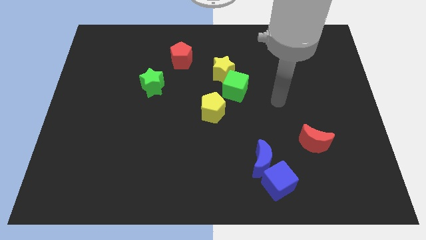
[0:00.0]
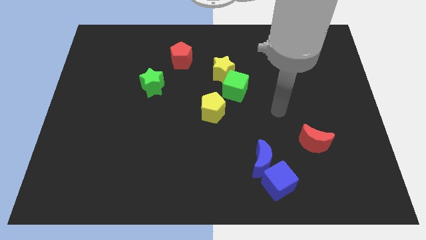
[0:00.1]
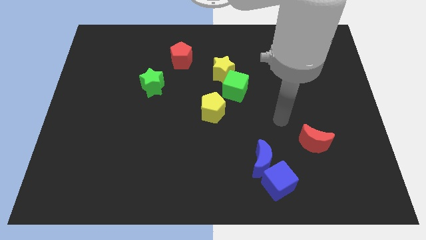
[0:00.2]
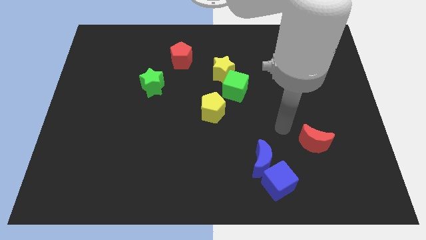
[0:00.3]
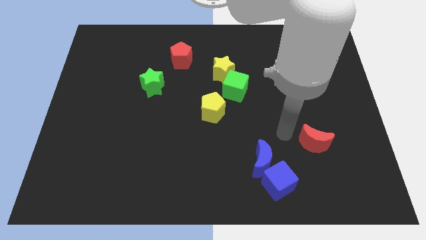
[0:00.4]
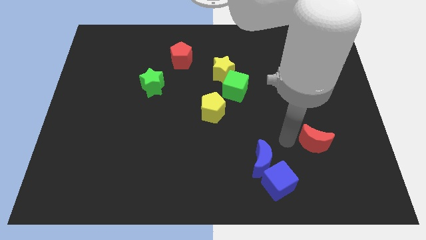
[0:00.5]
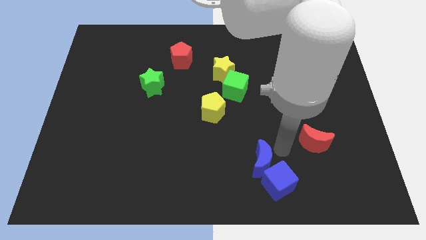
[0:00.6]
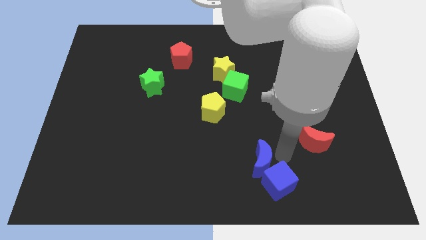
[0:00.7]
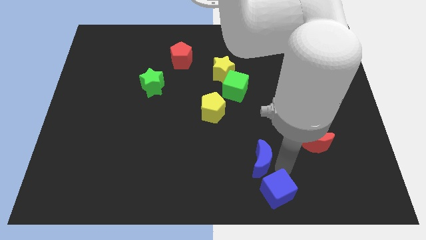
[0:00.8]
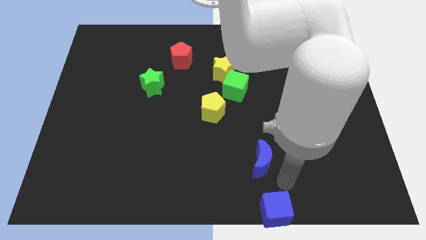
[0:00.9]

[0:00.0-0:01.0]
separate the blue moon from the blue cube

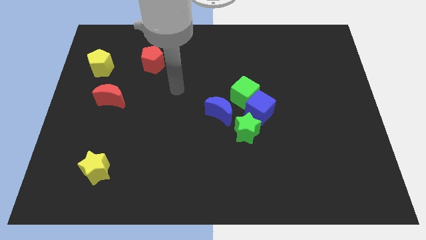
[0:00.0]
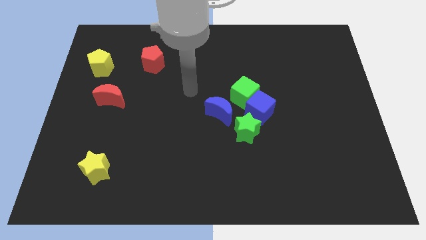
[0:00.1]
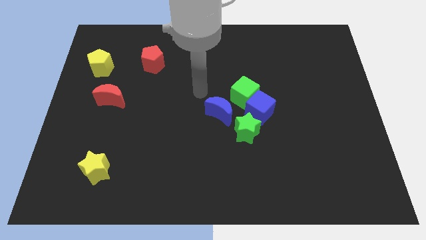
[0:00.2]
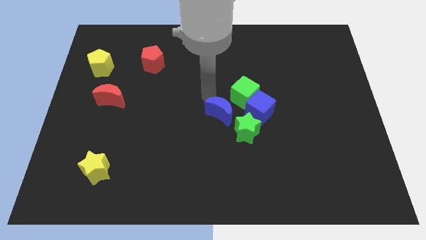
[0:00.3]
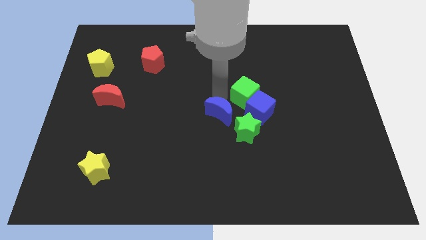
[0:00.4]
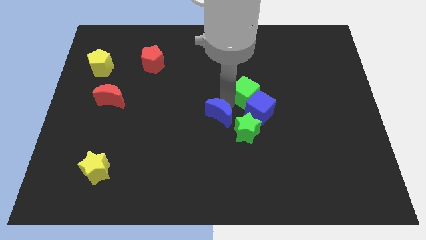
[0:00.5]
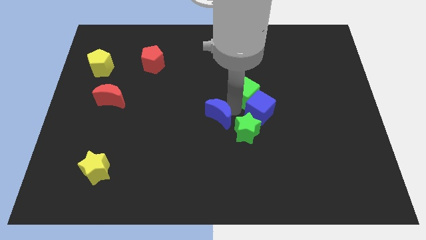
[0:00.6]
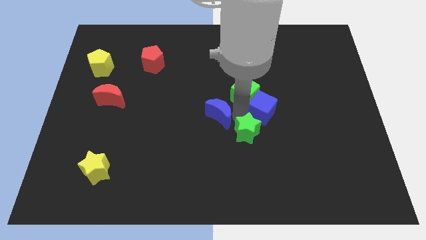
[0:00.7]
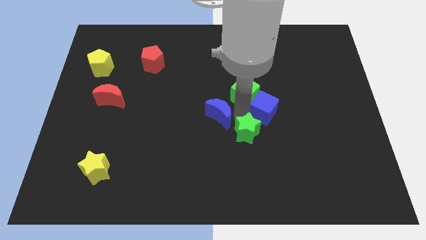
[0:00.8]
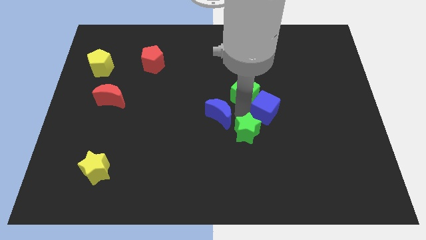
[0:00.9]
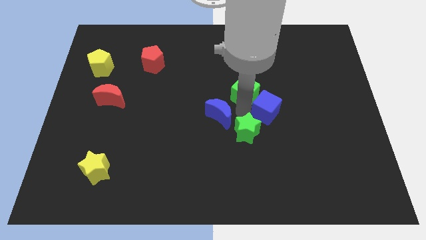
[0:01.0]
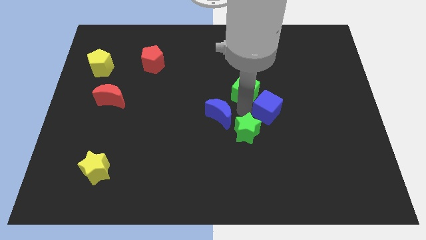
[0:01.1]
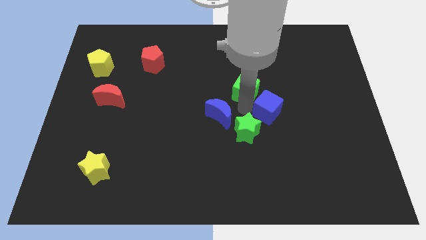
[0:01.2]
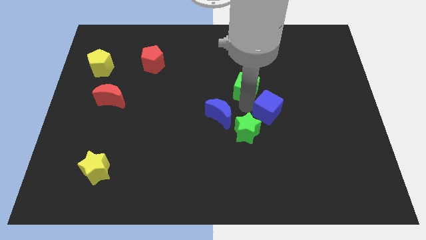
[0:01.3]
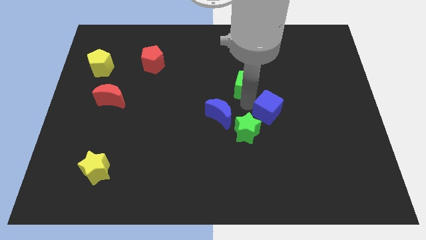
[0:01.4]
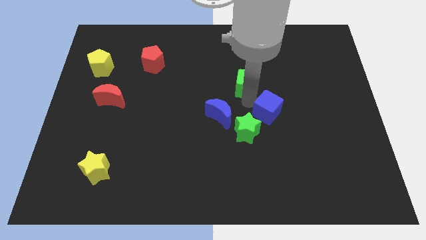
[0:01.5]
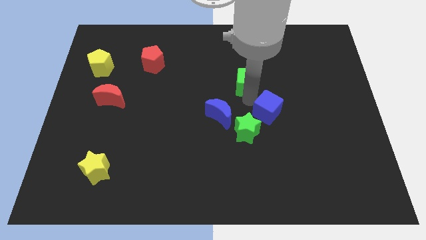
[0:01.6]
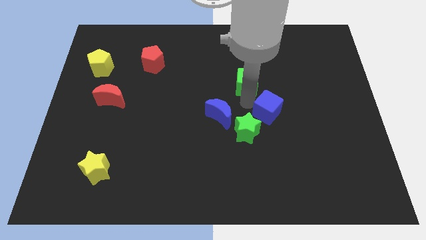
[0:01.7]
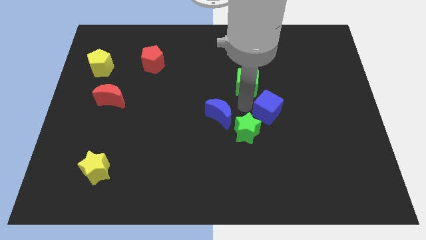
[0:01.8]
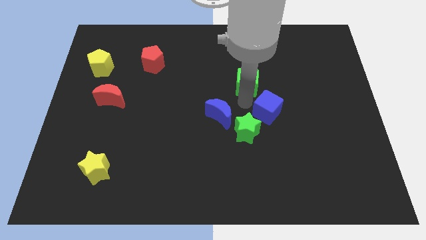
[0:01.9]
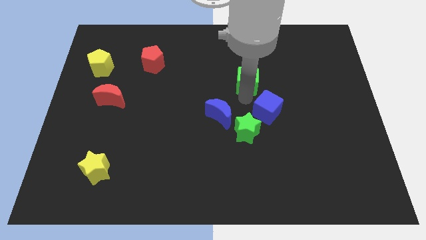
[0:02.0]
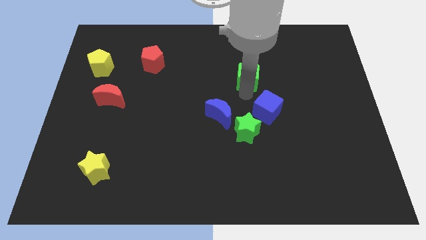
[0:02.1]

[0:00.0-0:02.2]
separate the green cube from the blue cube and blue moon

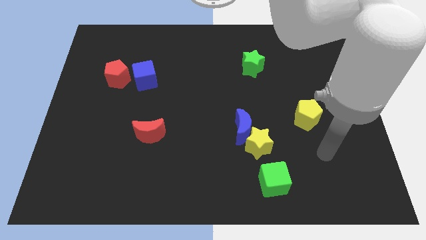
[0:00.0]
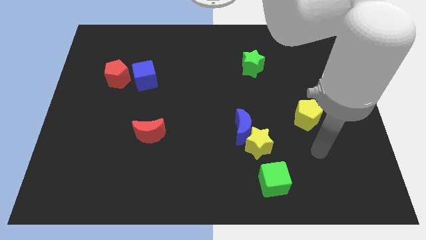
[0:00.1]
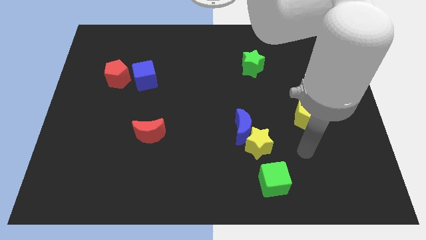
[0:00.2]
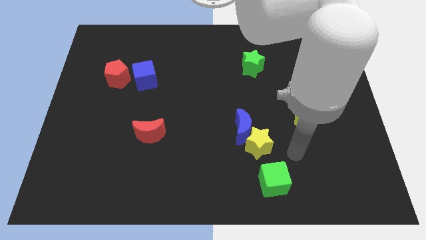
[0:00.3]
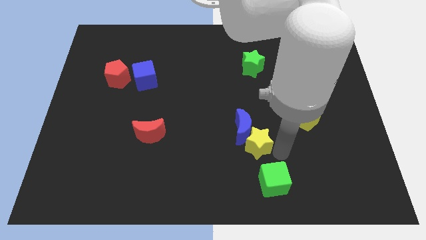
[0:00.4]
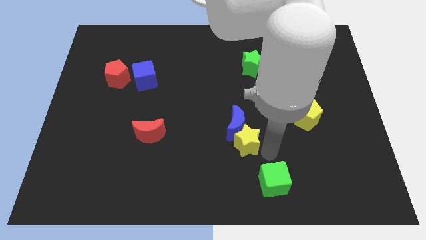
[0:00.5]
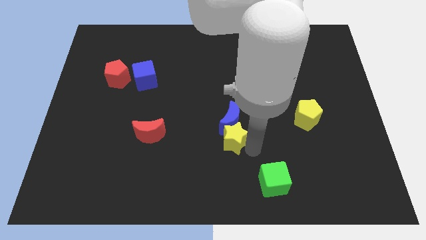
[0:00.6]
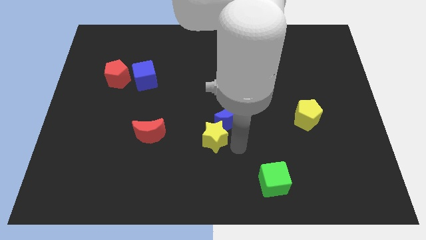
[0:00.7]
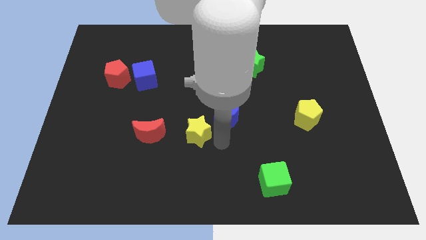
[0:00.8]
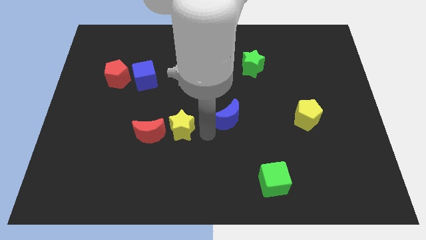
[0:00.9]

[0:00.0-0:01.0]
separate the blue moon from the yellow star

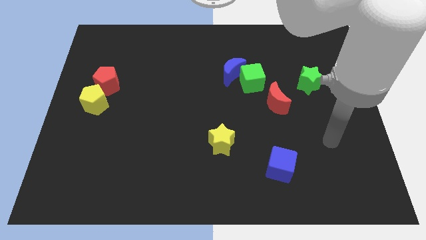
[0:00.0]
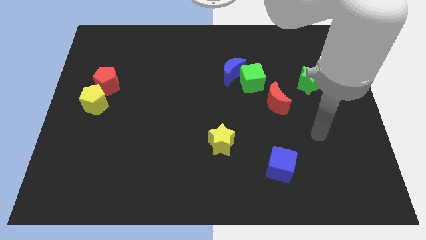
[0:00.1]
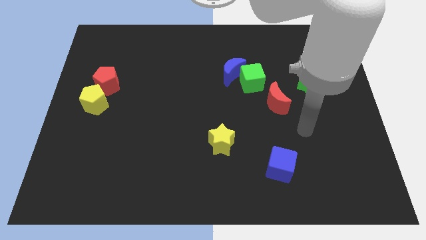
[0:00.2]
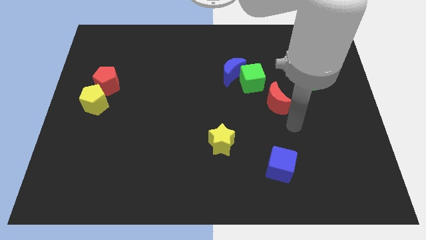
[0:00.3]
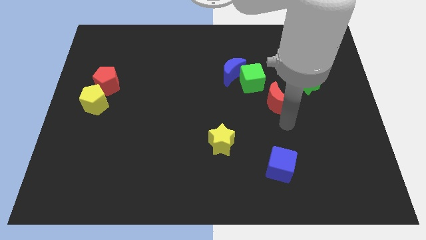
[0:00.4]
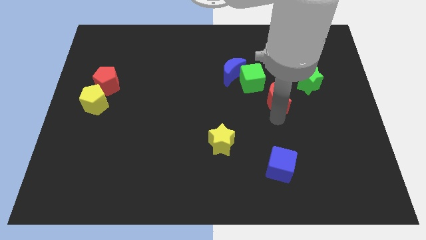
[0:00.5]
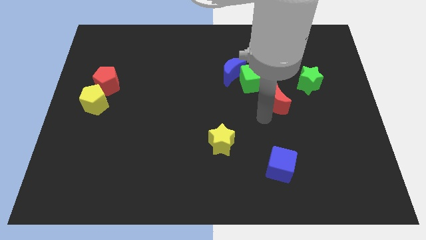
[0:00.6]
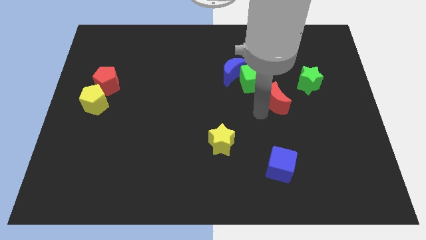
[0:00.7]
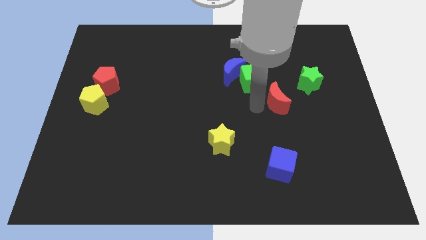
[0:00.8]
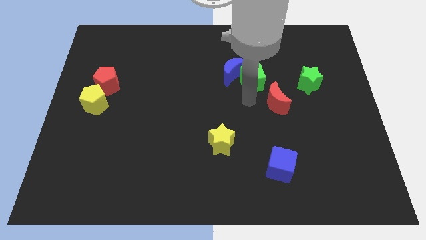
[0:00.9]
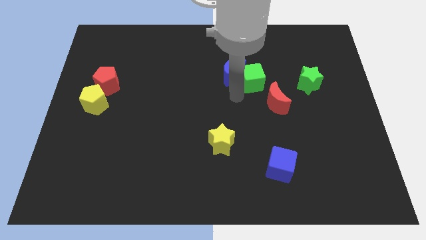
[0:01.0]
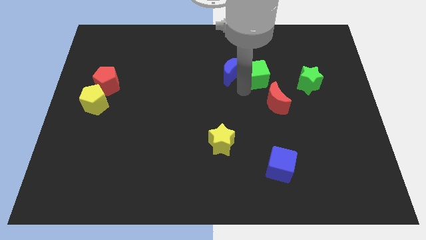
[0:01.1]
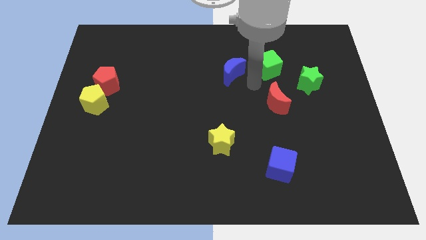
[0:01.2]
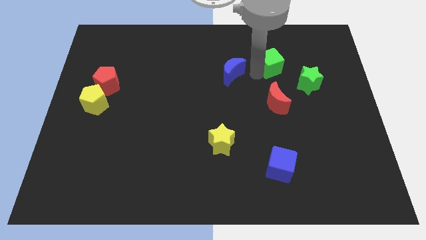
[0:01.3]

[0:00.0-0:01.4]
pull the blue moon apart from the green cube

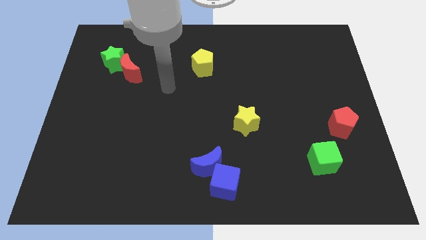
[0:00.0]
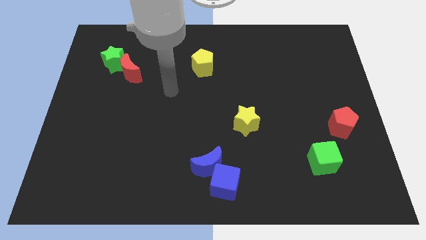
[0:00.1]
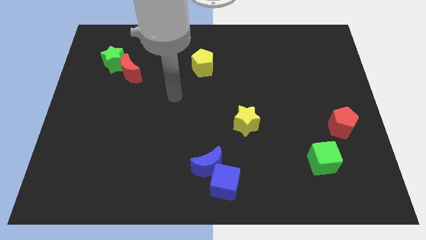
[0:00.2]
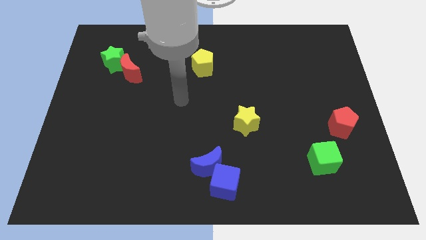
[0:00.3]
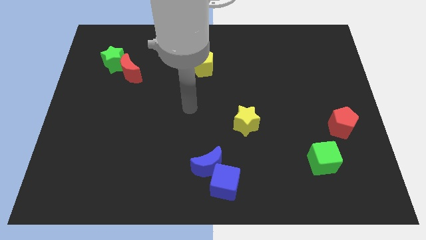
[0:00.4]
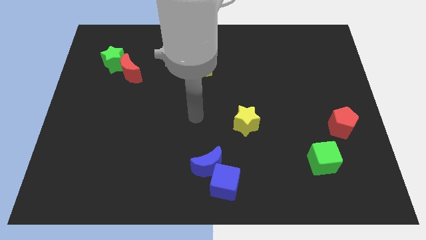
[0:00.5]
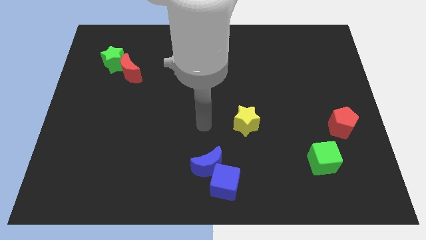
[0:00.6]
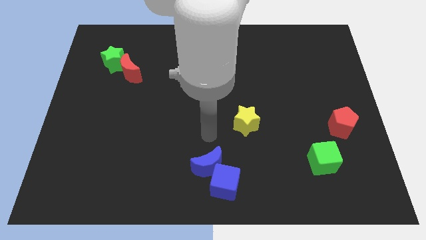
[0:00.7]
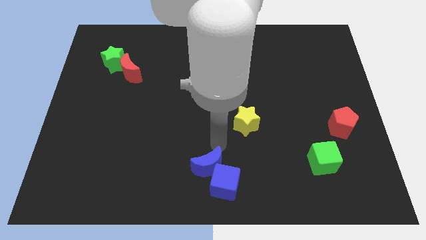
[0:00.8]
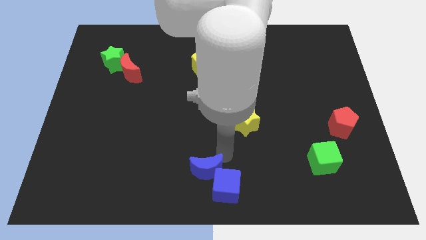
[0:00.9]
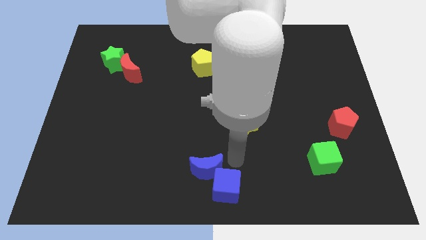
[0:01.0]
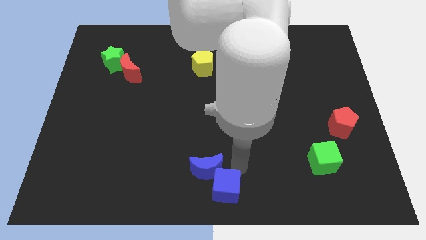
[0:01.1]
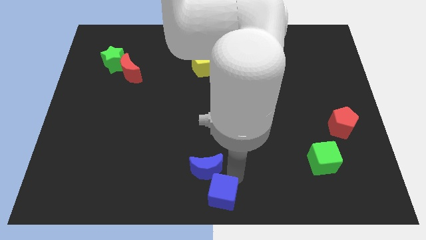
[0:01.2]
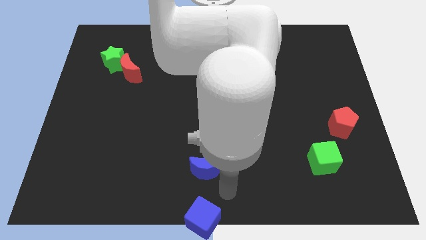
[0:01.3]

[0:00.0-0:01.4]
pull the blue moon apart from the blue cube

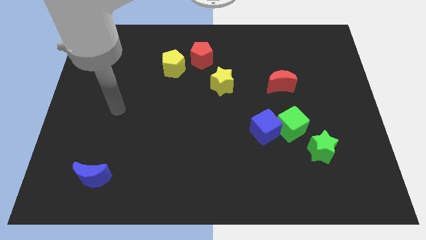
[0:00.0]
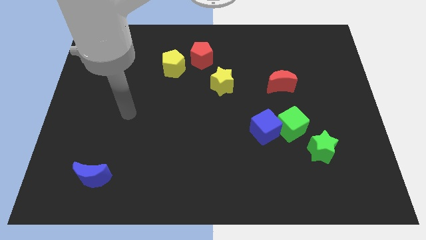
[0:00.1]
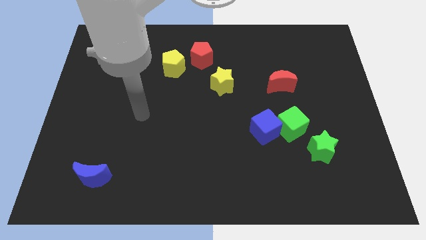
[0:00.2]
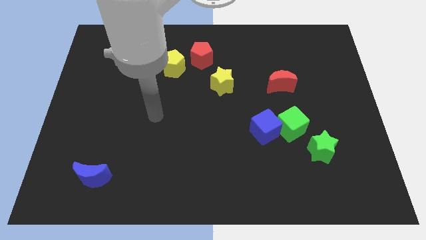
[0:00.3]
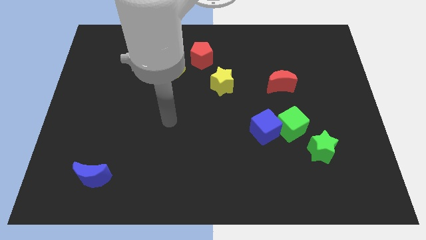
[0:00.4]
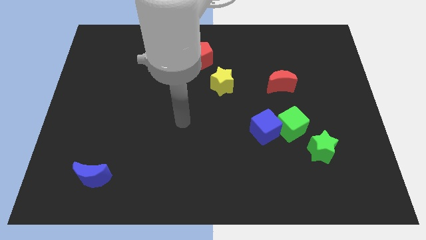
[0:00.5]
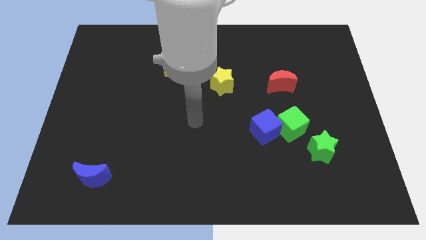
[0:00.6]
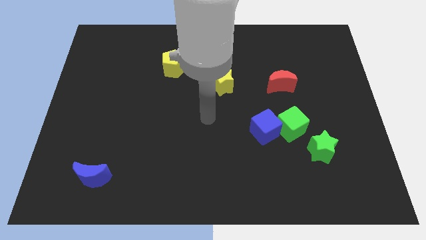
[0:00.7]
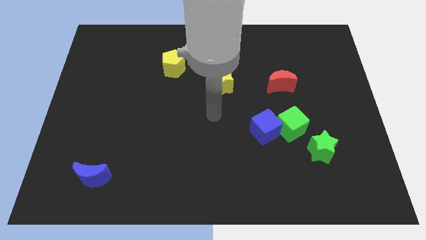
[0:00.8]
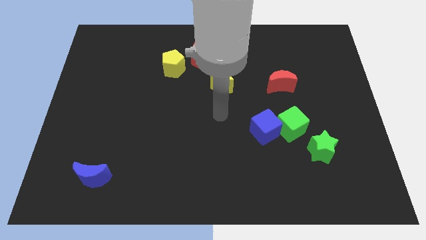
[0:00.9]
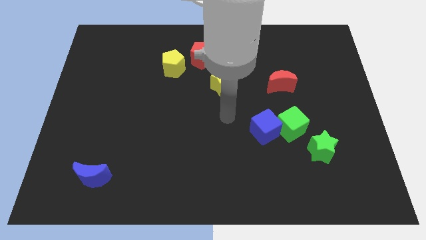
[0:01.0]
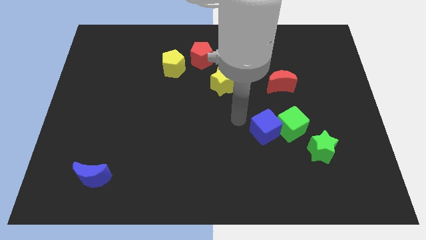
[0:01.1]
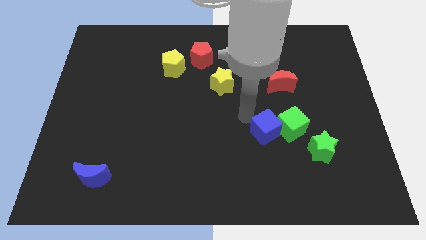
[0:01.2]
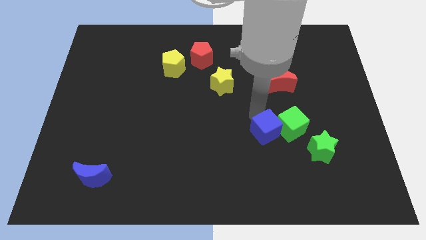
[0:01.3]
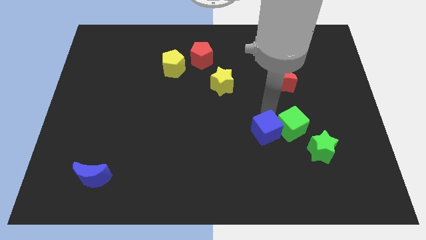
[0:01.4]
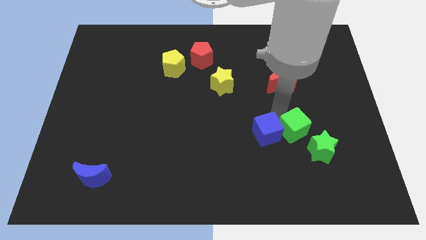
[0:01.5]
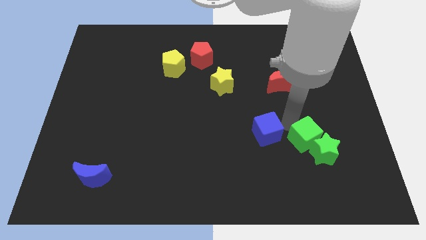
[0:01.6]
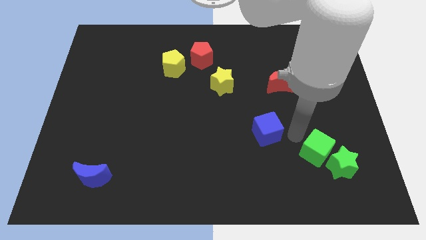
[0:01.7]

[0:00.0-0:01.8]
separate the blue cube from the green cube

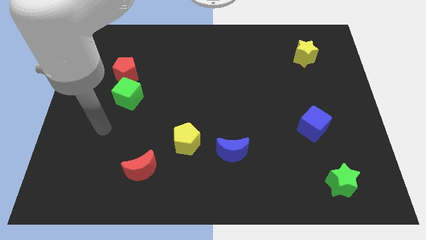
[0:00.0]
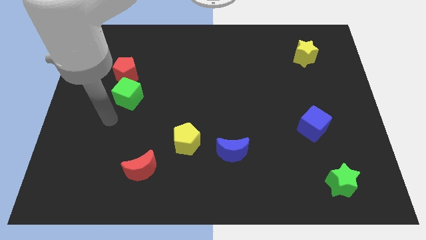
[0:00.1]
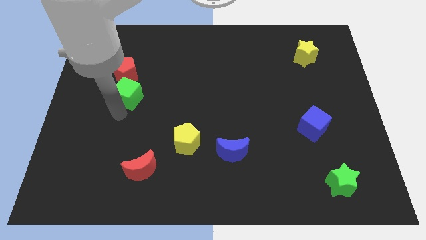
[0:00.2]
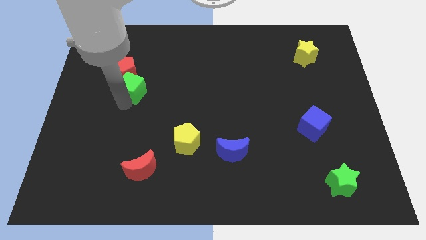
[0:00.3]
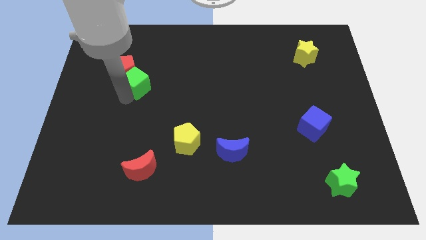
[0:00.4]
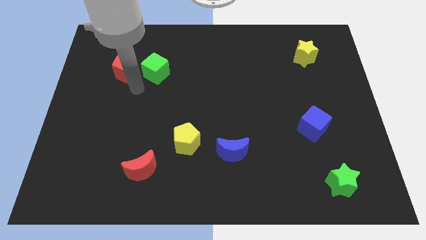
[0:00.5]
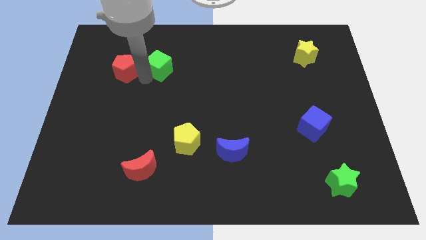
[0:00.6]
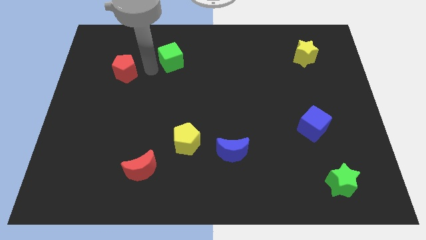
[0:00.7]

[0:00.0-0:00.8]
move the red pentagon away from the green cube
